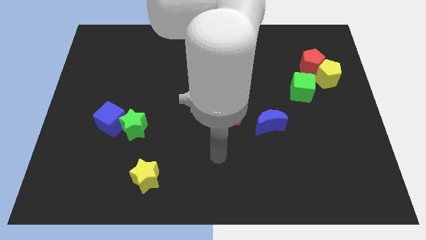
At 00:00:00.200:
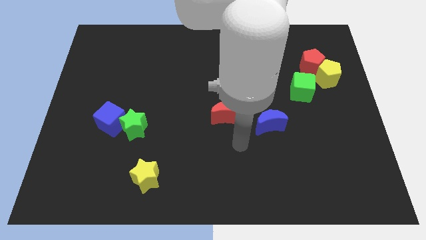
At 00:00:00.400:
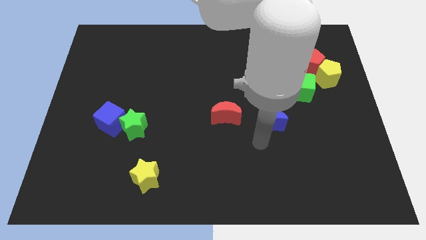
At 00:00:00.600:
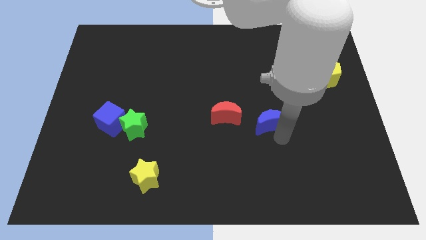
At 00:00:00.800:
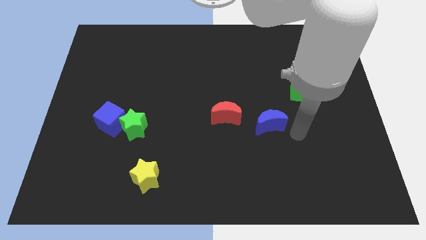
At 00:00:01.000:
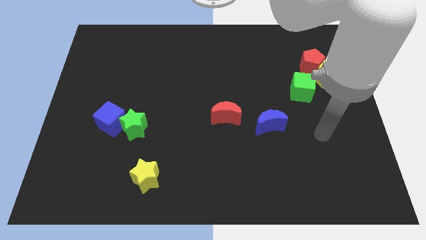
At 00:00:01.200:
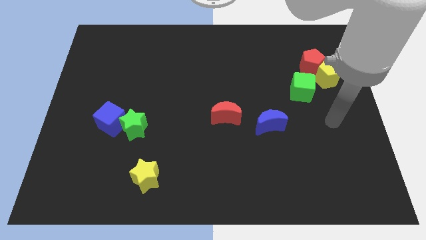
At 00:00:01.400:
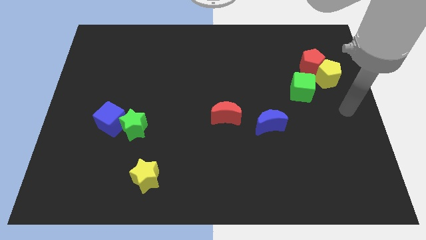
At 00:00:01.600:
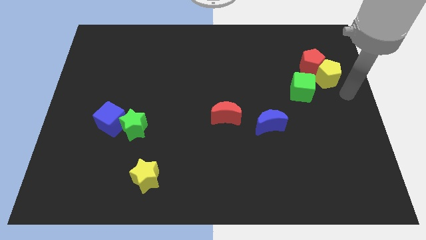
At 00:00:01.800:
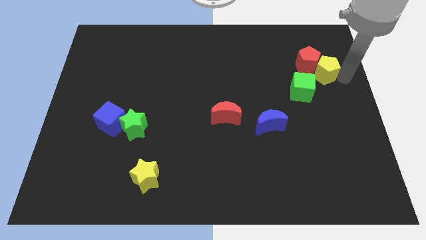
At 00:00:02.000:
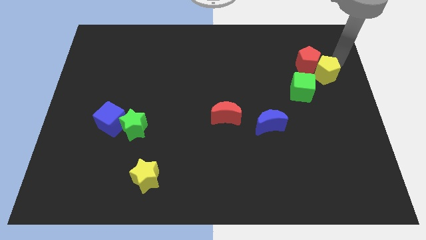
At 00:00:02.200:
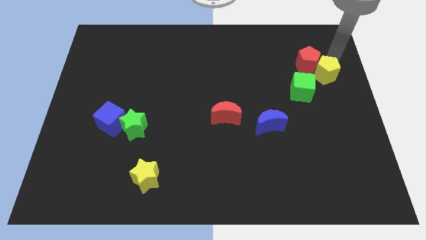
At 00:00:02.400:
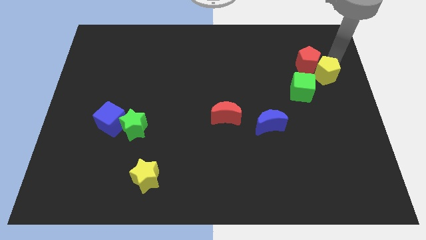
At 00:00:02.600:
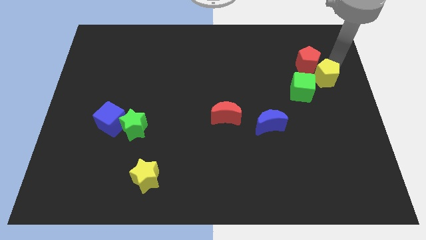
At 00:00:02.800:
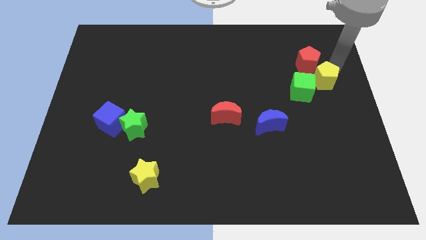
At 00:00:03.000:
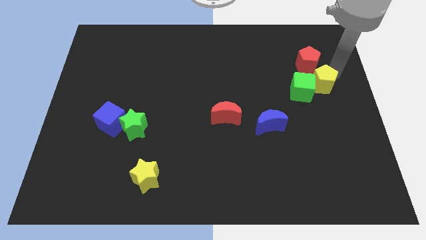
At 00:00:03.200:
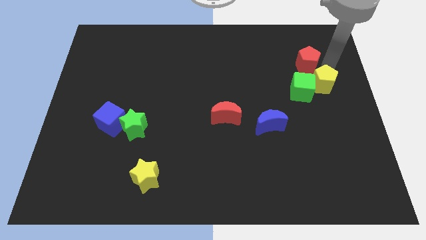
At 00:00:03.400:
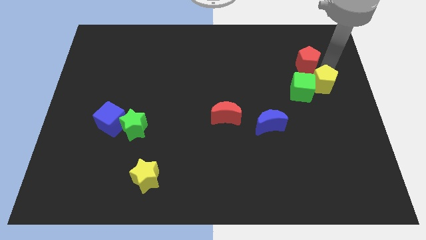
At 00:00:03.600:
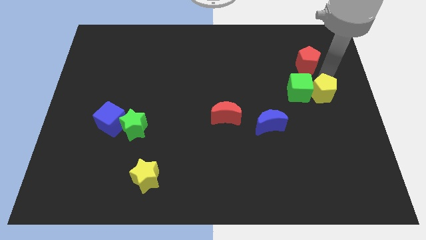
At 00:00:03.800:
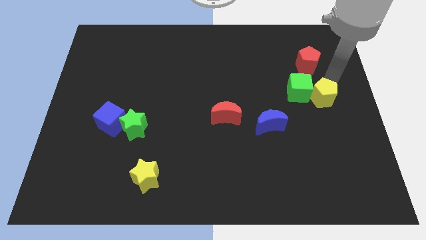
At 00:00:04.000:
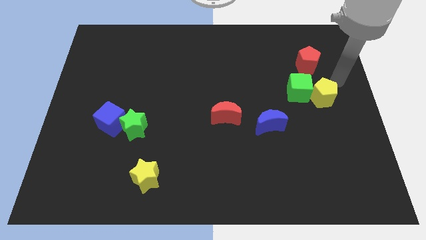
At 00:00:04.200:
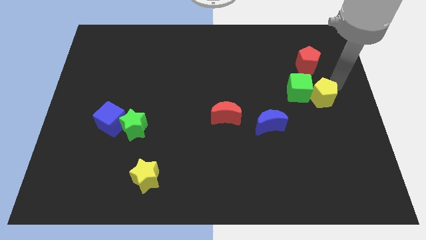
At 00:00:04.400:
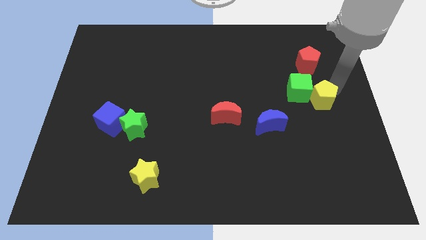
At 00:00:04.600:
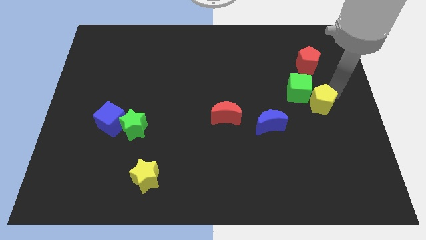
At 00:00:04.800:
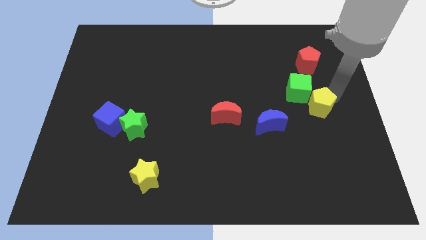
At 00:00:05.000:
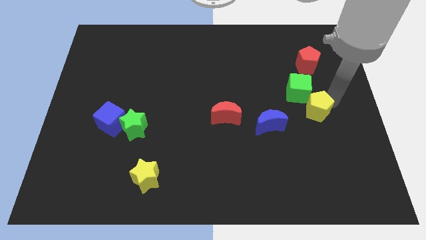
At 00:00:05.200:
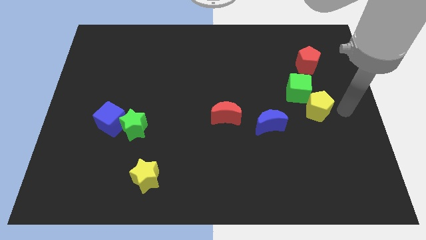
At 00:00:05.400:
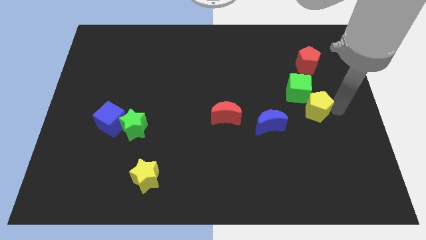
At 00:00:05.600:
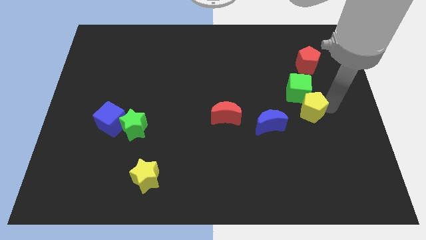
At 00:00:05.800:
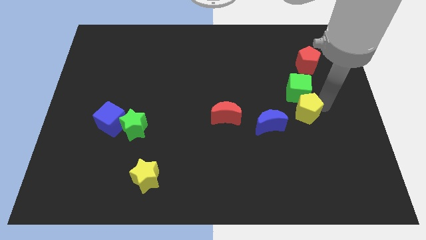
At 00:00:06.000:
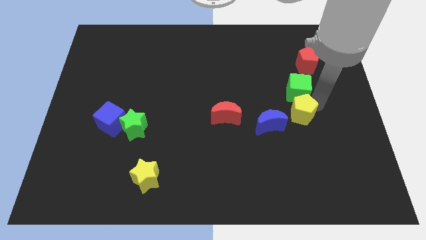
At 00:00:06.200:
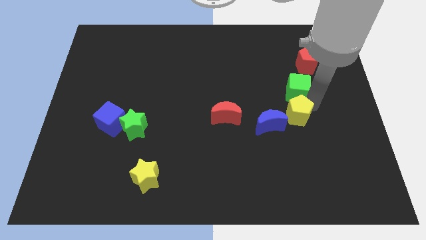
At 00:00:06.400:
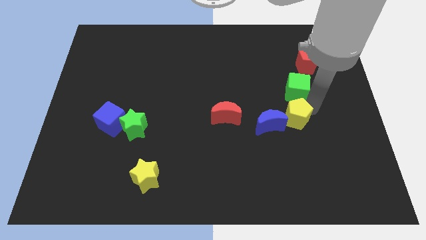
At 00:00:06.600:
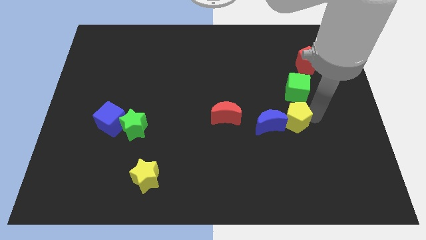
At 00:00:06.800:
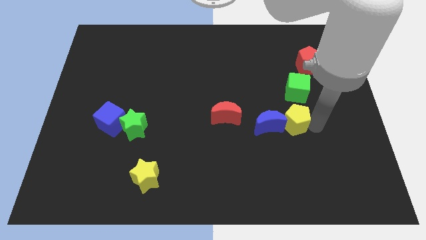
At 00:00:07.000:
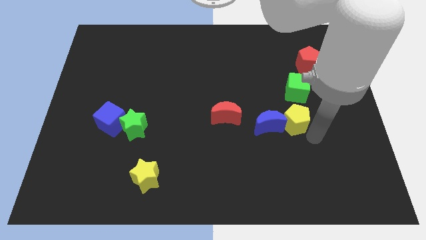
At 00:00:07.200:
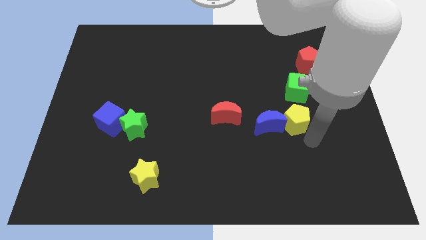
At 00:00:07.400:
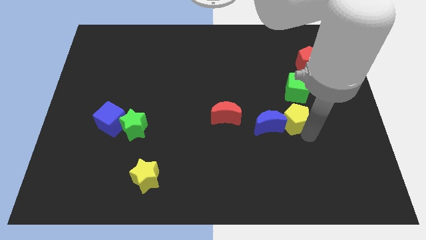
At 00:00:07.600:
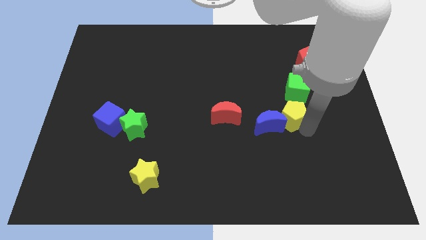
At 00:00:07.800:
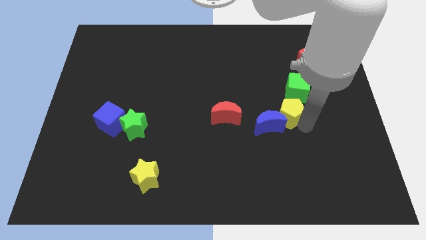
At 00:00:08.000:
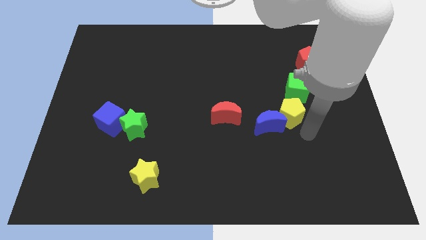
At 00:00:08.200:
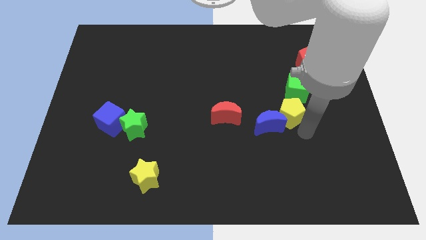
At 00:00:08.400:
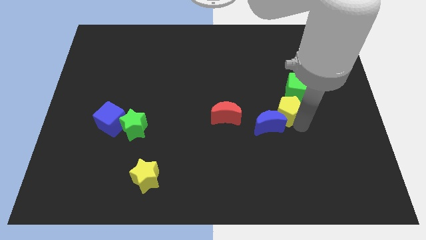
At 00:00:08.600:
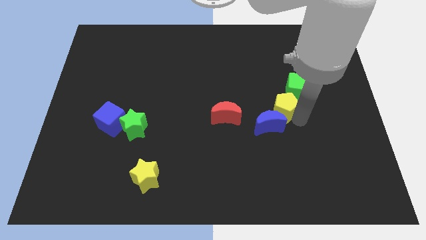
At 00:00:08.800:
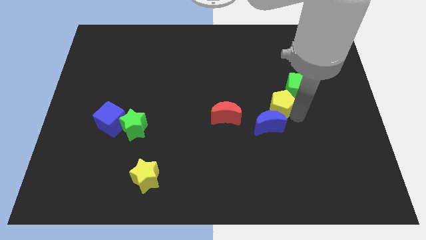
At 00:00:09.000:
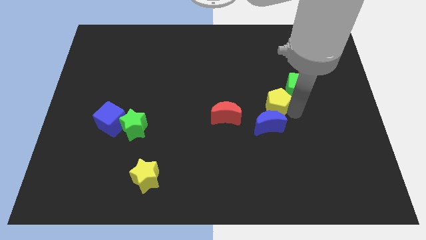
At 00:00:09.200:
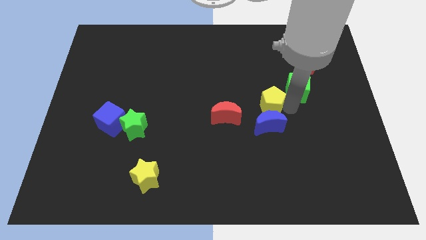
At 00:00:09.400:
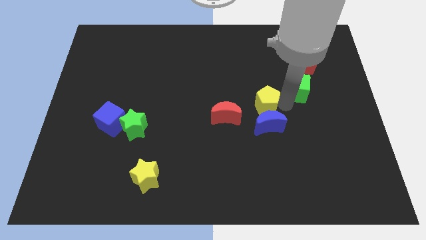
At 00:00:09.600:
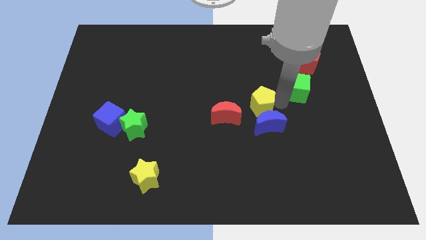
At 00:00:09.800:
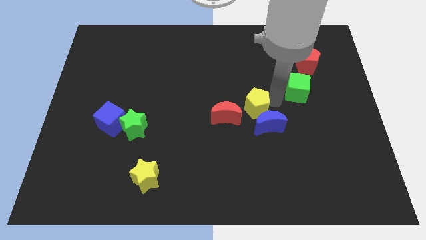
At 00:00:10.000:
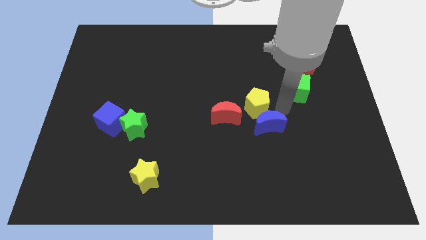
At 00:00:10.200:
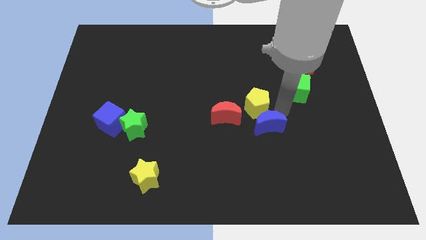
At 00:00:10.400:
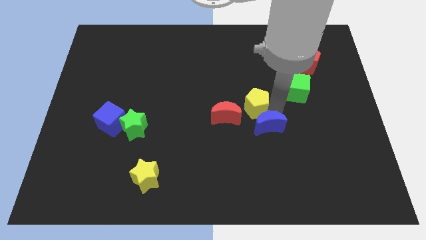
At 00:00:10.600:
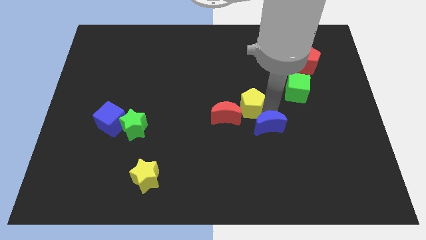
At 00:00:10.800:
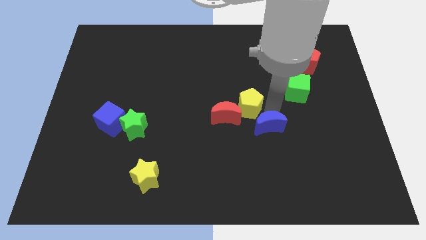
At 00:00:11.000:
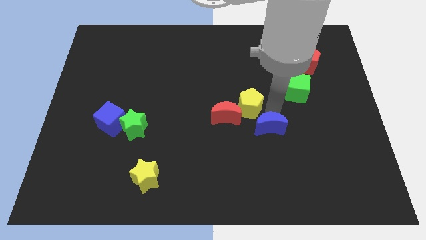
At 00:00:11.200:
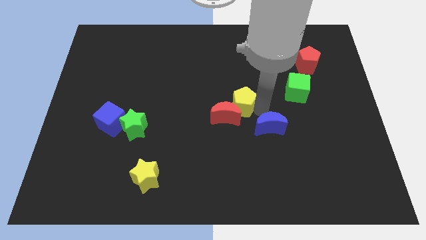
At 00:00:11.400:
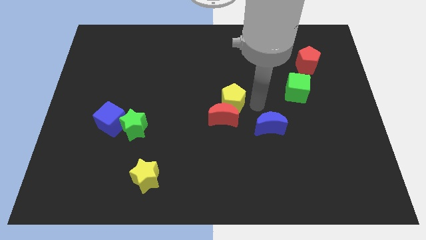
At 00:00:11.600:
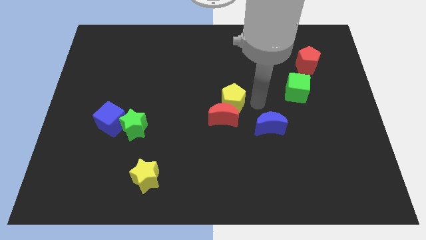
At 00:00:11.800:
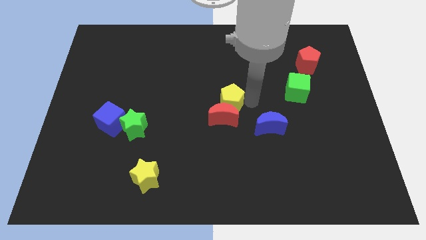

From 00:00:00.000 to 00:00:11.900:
move the yellow pentagon to the top left of the red moon

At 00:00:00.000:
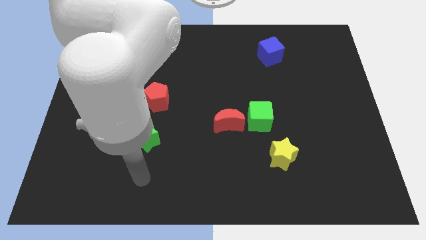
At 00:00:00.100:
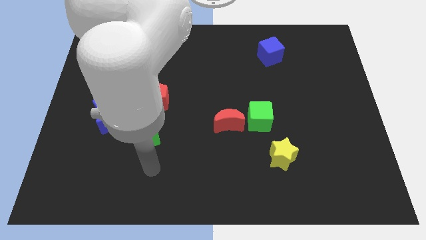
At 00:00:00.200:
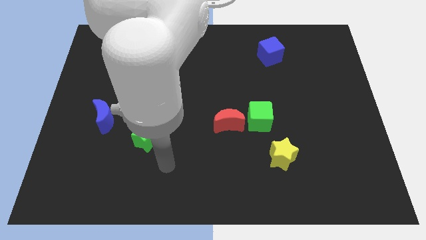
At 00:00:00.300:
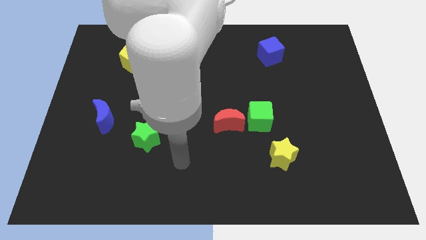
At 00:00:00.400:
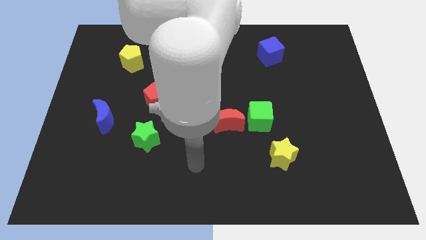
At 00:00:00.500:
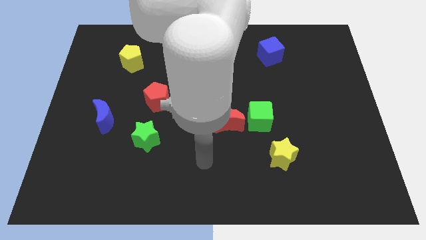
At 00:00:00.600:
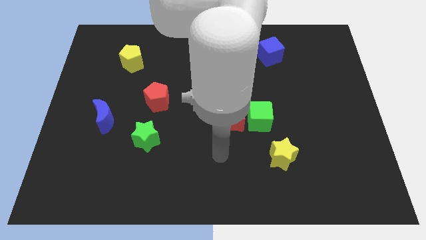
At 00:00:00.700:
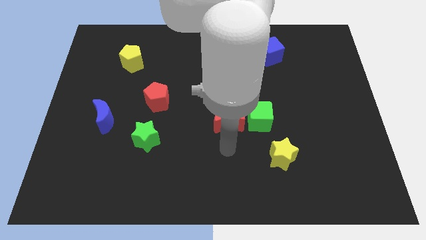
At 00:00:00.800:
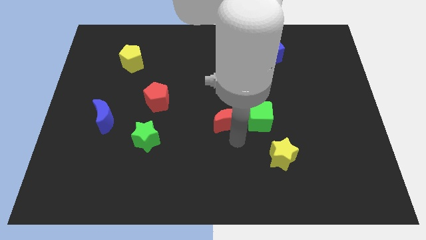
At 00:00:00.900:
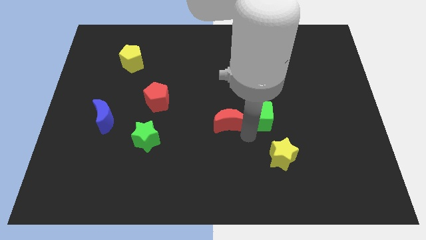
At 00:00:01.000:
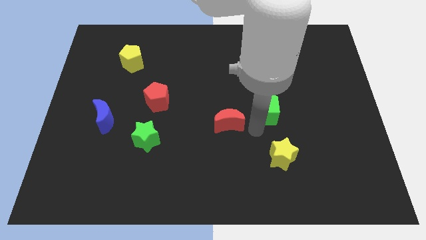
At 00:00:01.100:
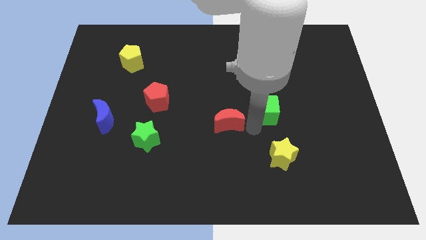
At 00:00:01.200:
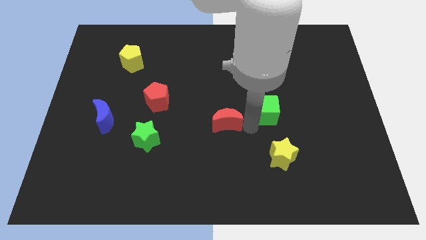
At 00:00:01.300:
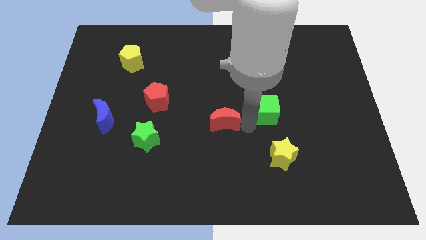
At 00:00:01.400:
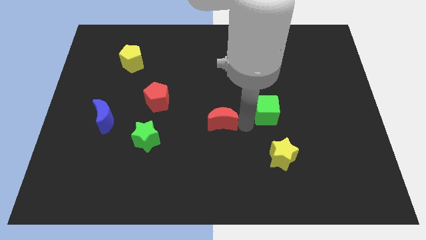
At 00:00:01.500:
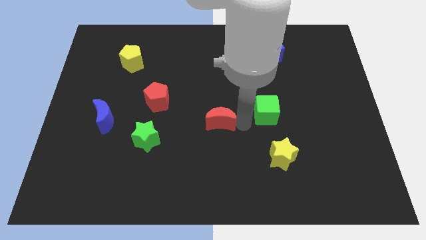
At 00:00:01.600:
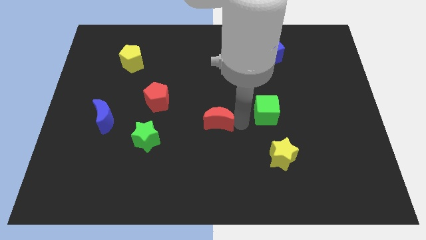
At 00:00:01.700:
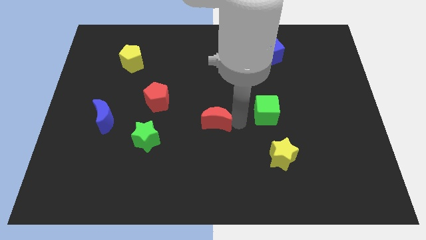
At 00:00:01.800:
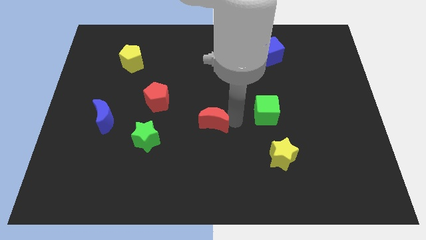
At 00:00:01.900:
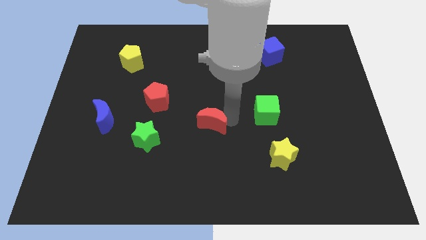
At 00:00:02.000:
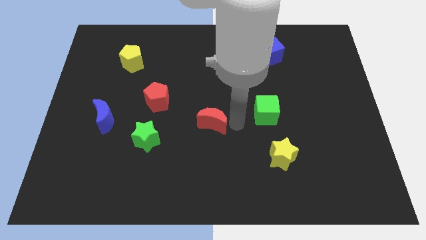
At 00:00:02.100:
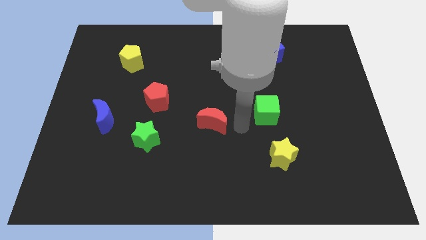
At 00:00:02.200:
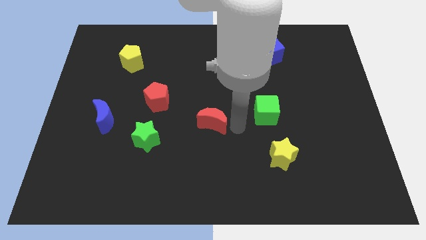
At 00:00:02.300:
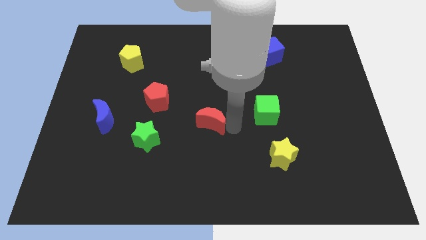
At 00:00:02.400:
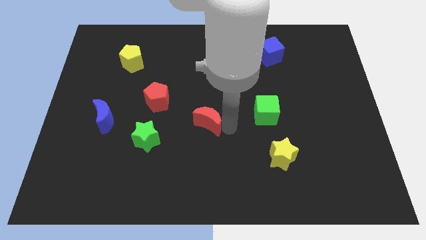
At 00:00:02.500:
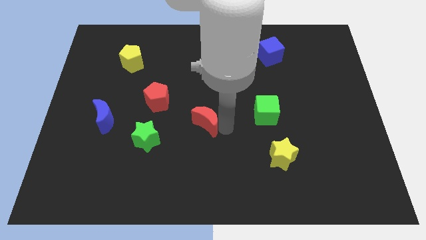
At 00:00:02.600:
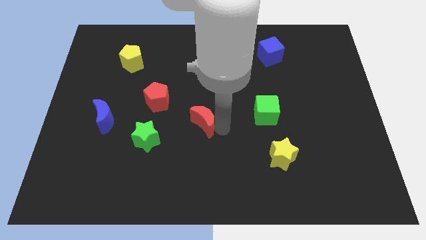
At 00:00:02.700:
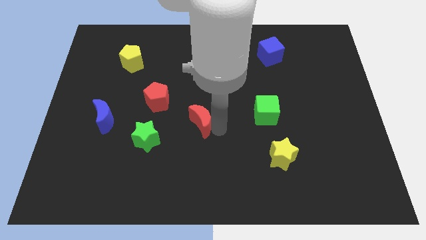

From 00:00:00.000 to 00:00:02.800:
move the red moon to the bottom right of the red pentagon
